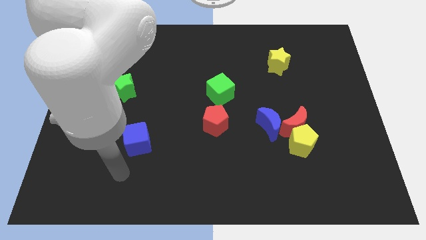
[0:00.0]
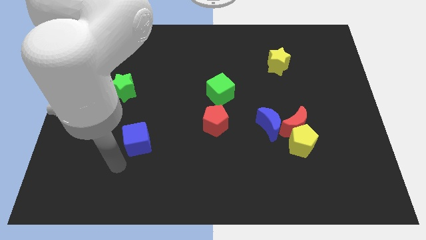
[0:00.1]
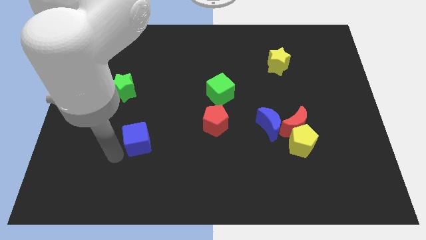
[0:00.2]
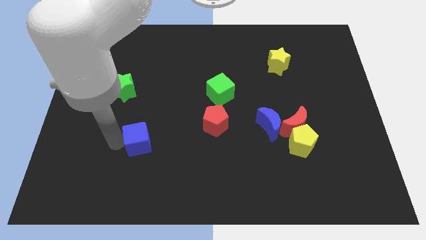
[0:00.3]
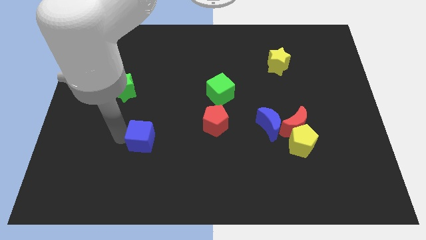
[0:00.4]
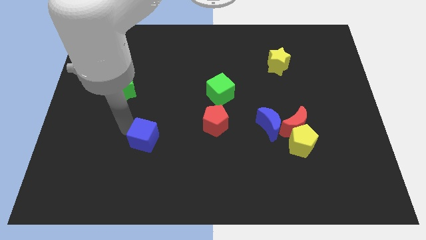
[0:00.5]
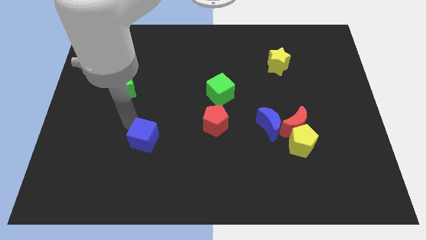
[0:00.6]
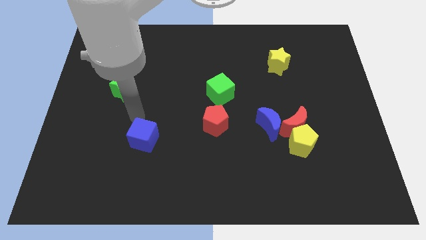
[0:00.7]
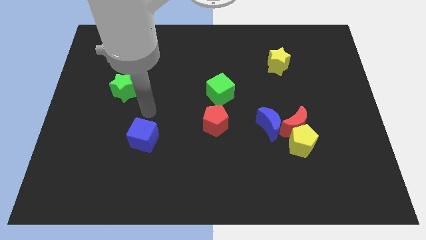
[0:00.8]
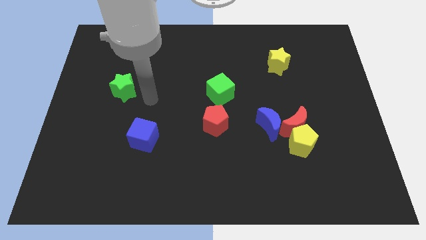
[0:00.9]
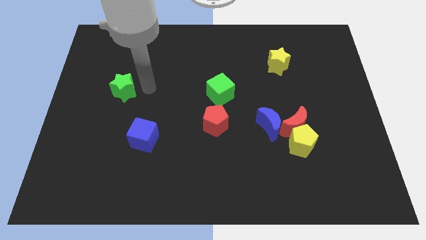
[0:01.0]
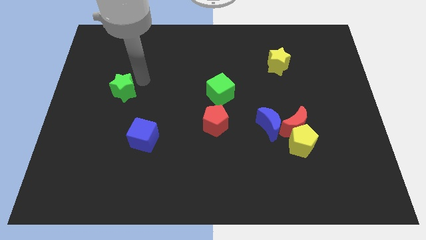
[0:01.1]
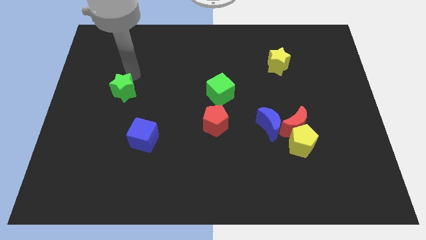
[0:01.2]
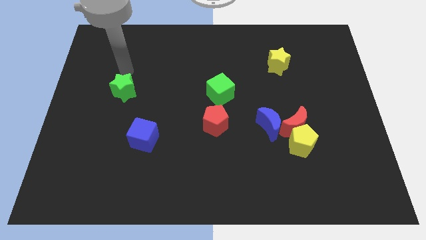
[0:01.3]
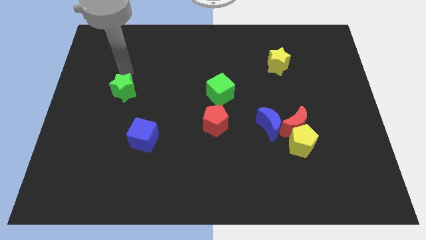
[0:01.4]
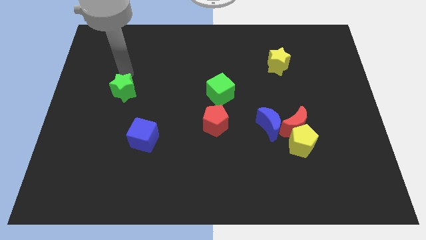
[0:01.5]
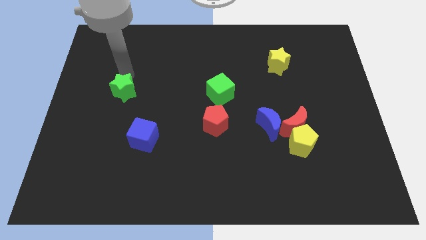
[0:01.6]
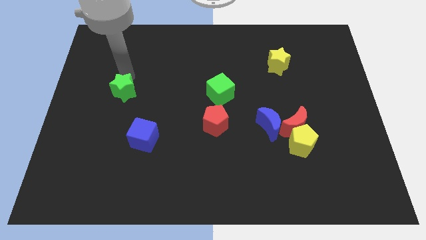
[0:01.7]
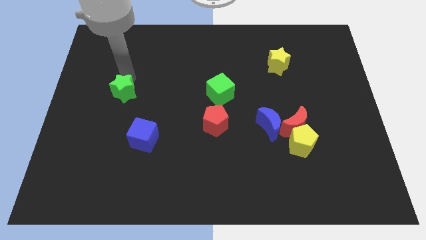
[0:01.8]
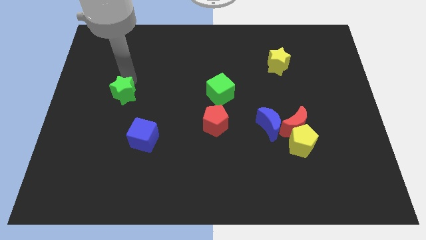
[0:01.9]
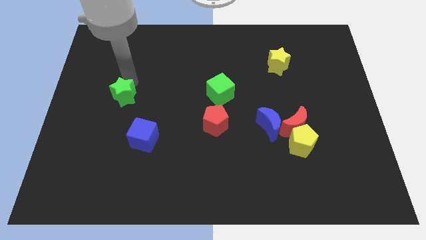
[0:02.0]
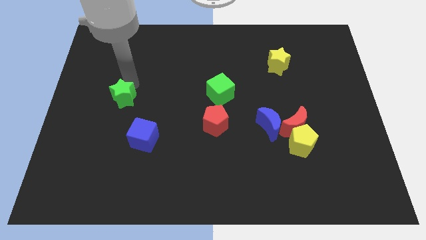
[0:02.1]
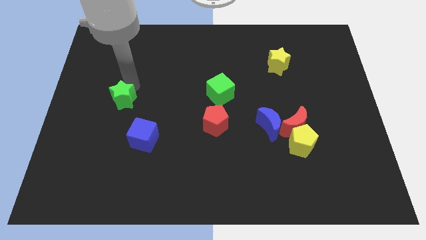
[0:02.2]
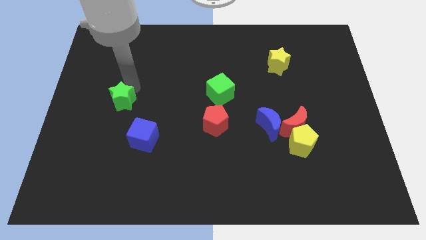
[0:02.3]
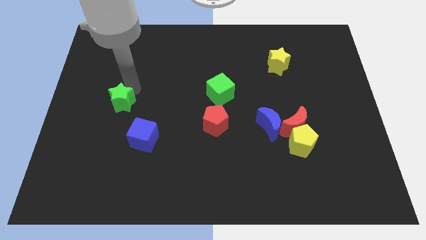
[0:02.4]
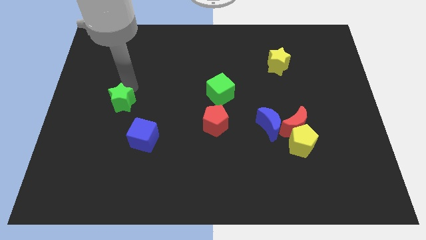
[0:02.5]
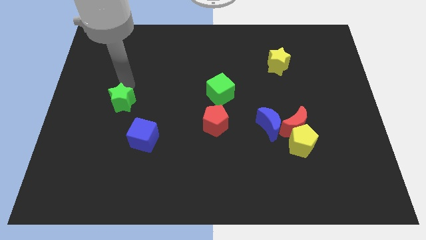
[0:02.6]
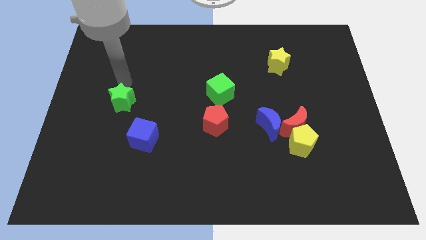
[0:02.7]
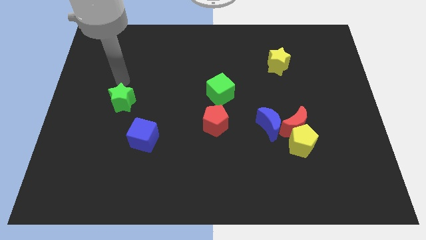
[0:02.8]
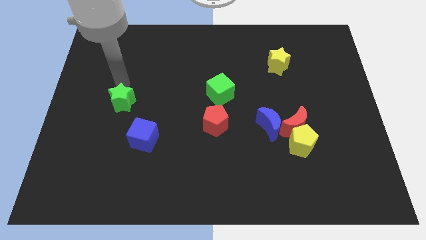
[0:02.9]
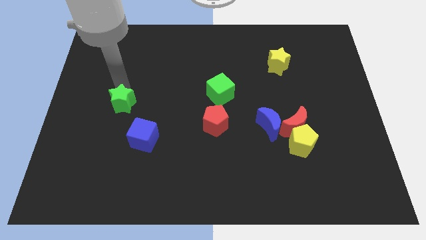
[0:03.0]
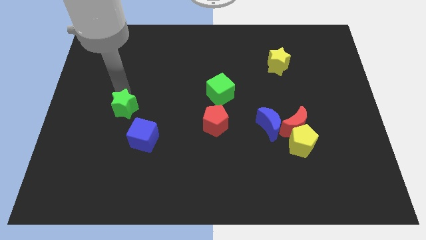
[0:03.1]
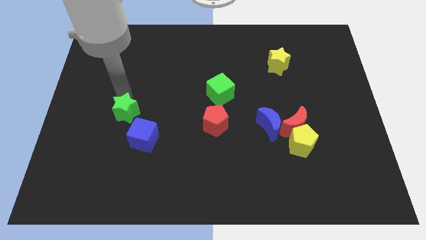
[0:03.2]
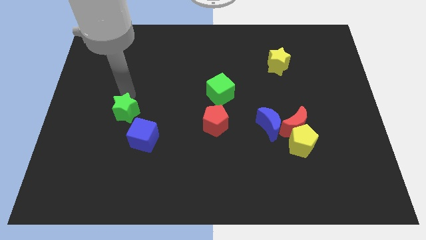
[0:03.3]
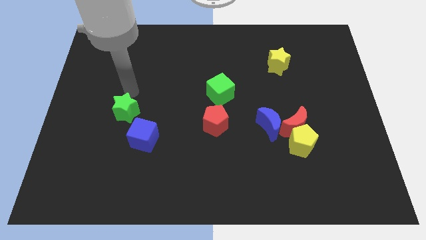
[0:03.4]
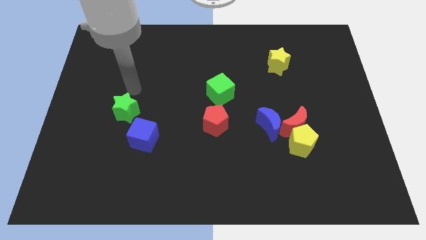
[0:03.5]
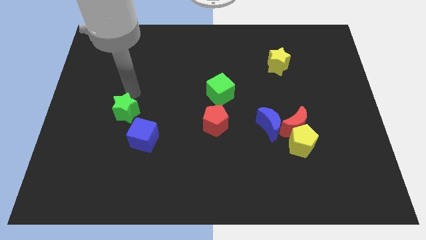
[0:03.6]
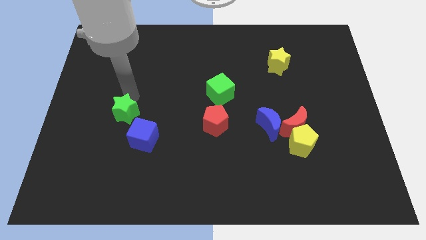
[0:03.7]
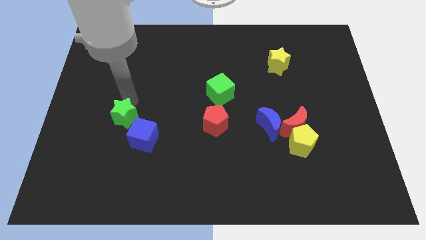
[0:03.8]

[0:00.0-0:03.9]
slide the green star down a little

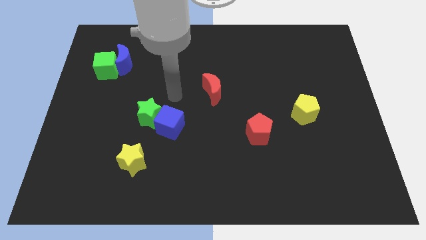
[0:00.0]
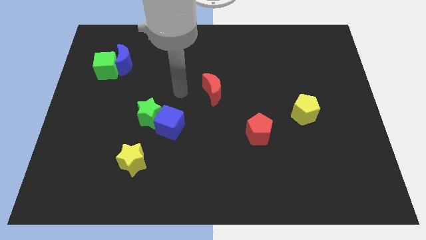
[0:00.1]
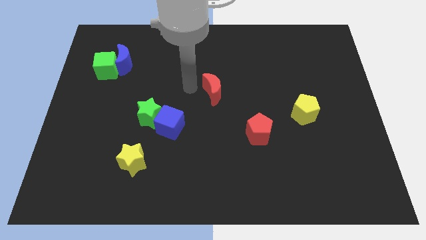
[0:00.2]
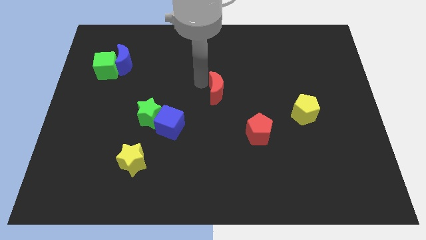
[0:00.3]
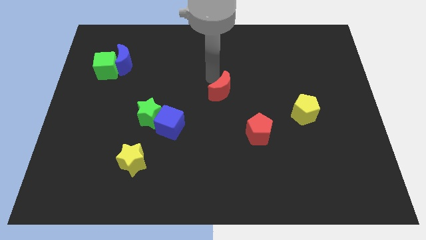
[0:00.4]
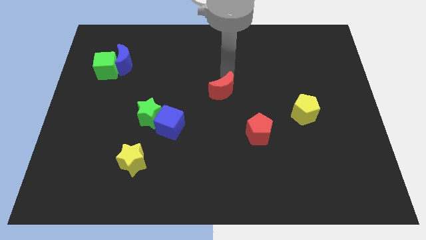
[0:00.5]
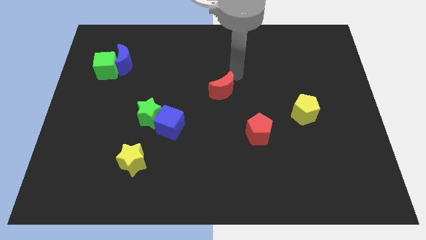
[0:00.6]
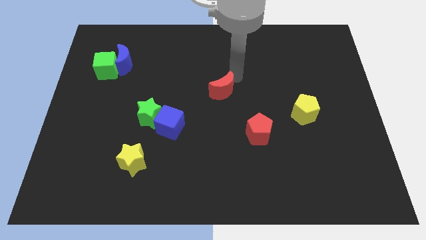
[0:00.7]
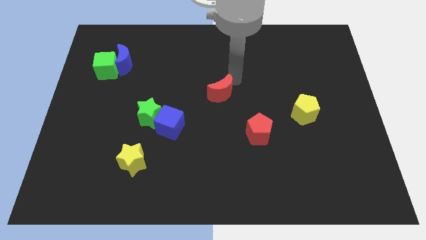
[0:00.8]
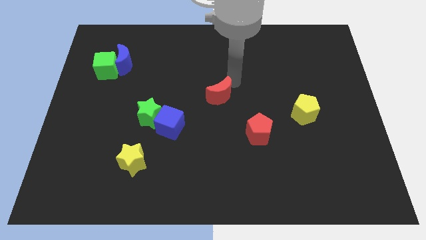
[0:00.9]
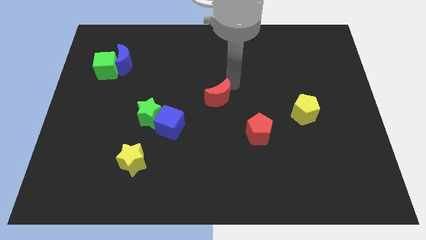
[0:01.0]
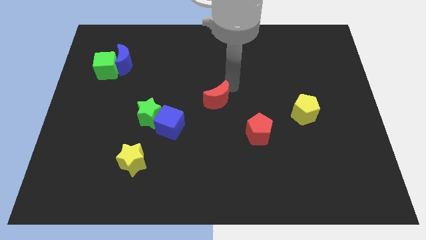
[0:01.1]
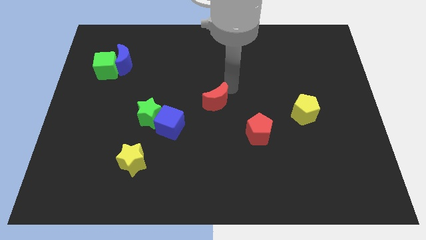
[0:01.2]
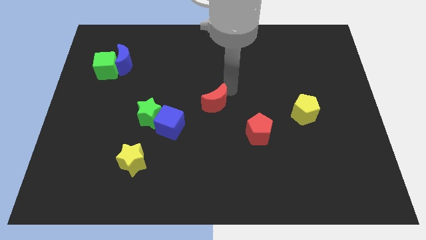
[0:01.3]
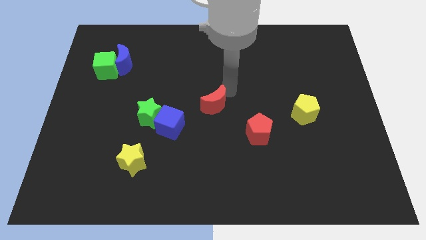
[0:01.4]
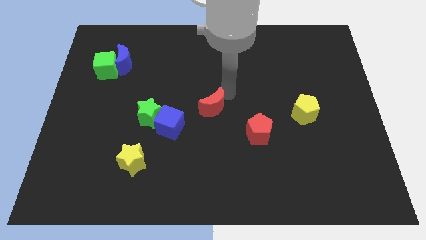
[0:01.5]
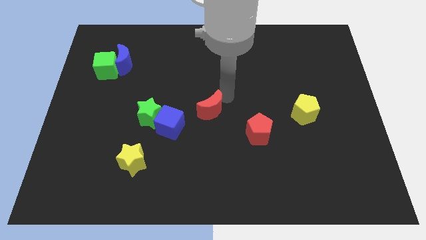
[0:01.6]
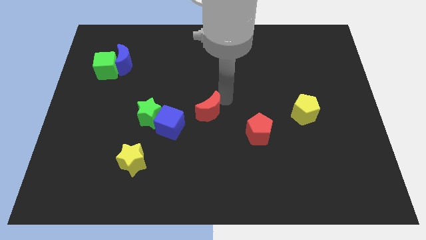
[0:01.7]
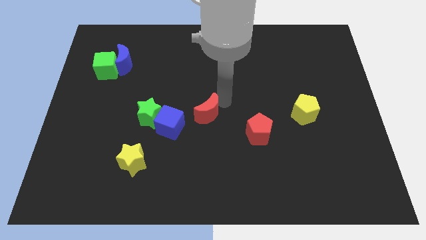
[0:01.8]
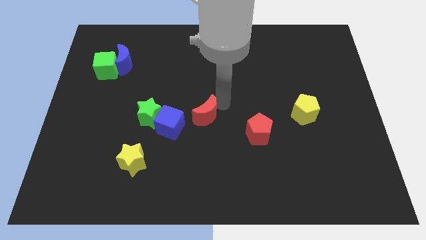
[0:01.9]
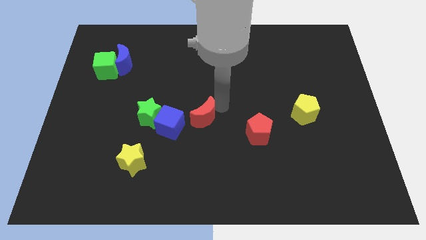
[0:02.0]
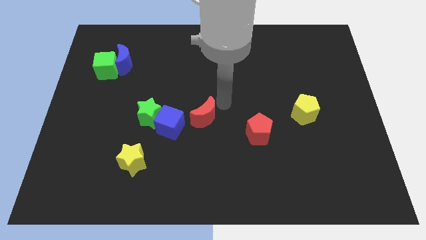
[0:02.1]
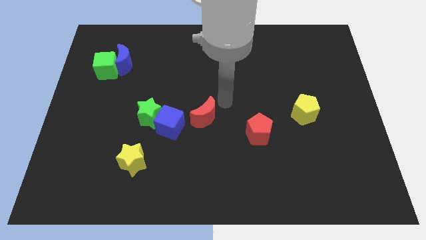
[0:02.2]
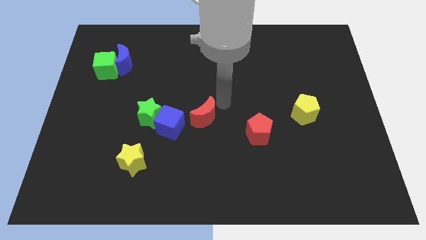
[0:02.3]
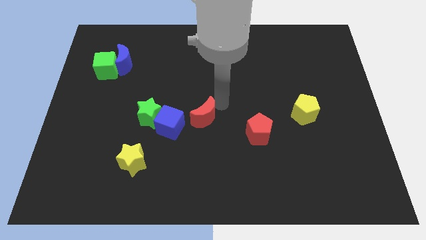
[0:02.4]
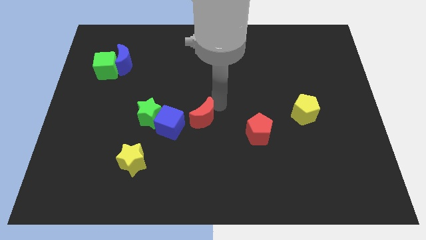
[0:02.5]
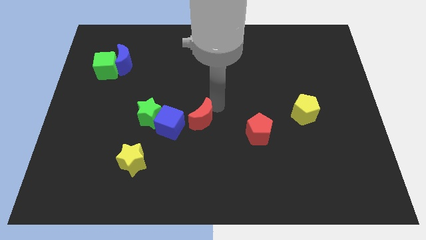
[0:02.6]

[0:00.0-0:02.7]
slightly move the red moon diagonally downwards and left

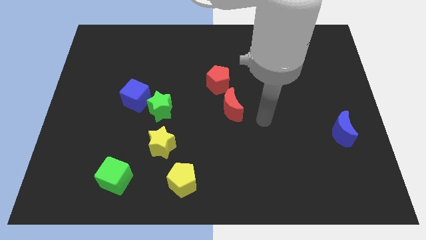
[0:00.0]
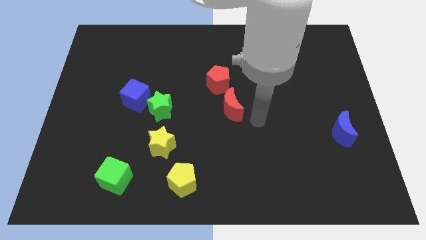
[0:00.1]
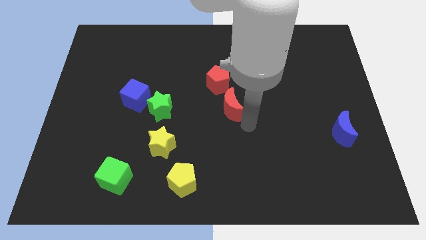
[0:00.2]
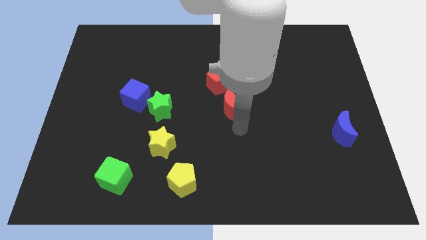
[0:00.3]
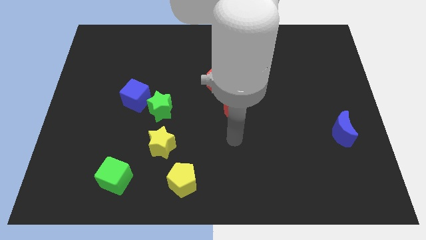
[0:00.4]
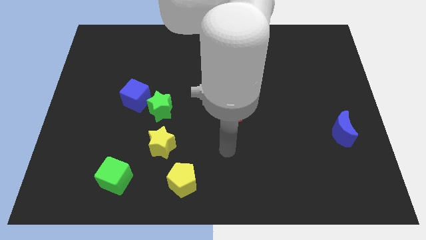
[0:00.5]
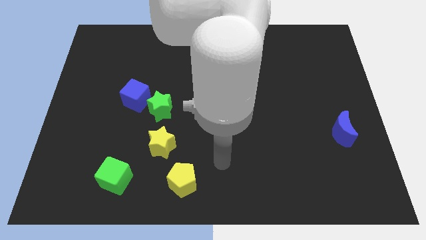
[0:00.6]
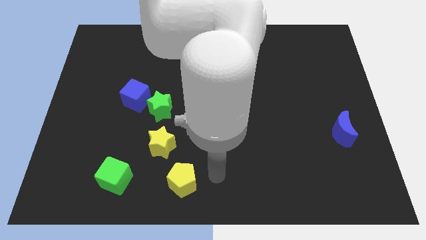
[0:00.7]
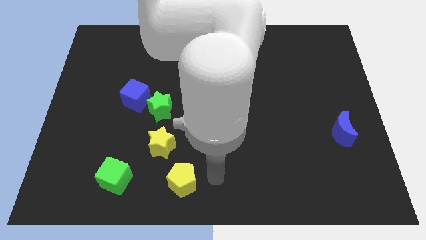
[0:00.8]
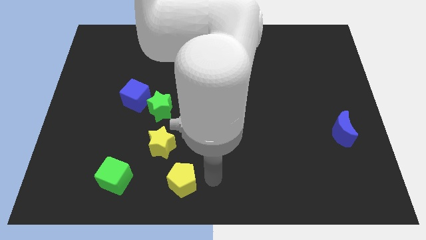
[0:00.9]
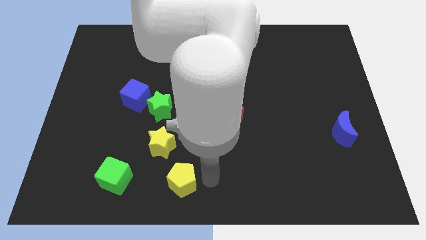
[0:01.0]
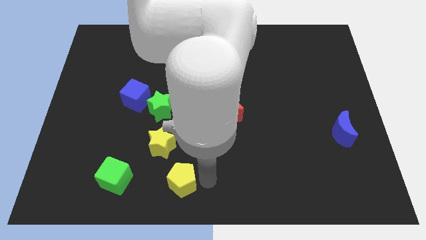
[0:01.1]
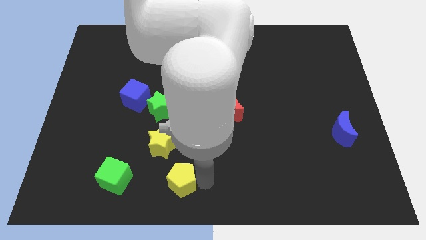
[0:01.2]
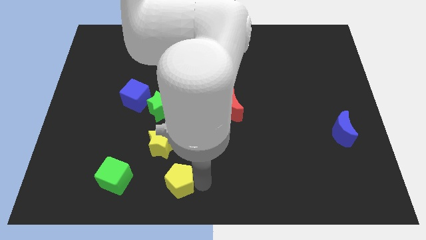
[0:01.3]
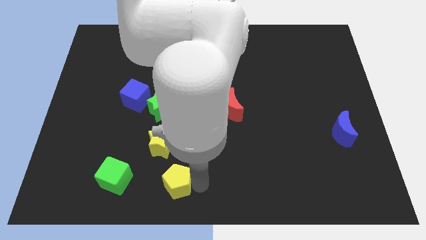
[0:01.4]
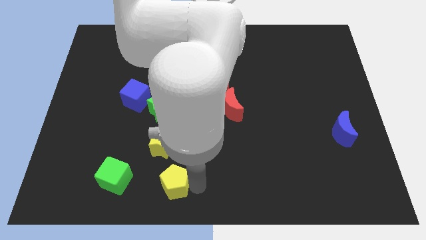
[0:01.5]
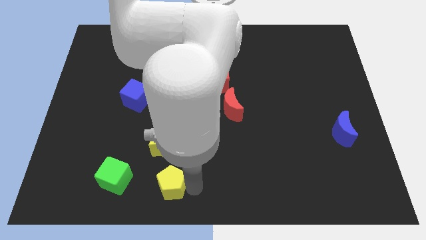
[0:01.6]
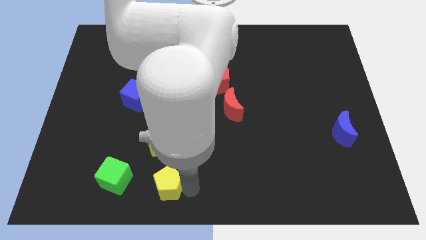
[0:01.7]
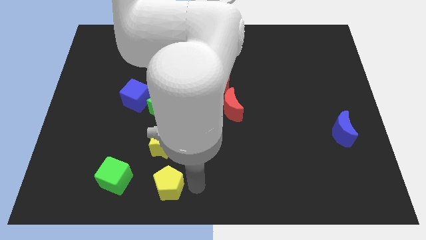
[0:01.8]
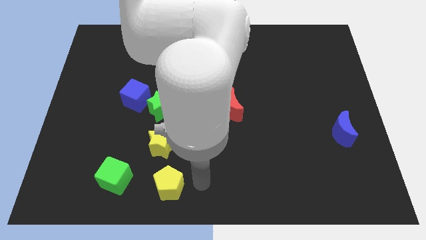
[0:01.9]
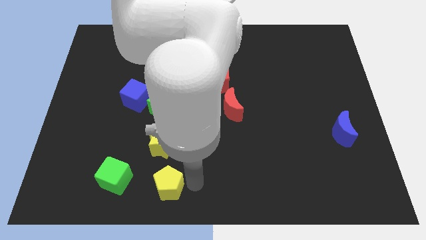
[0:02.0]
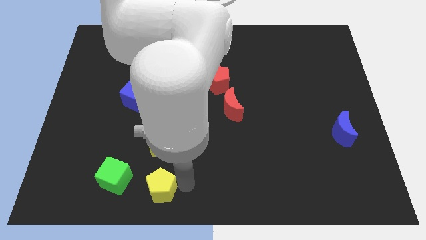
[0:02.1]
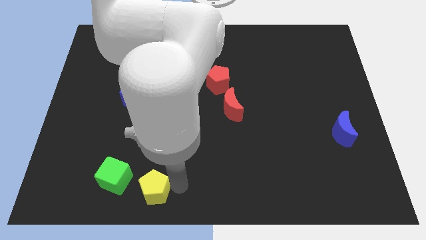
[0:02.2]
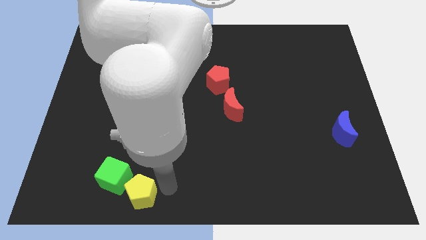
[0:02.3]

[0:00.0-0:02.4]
slightly slide the yellow pentagon to the left
